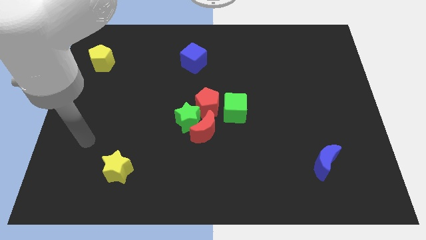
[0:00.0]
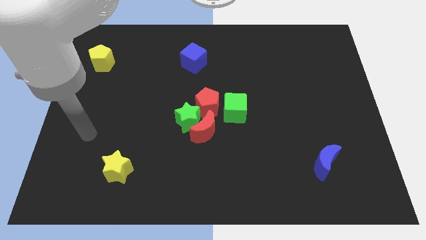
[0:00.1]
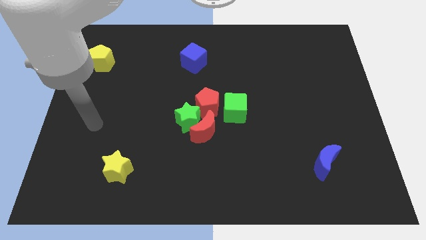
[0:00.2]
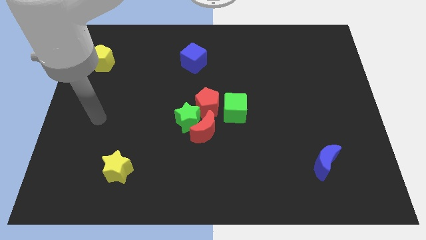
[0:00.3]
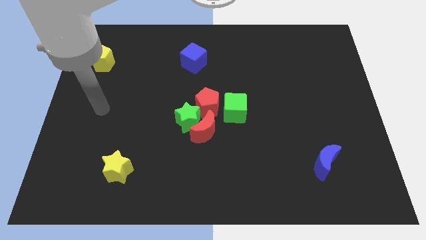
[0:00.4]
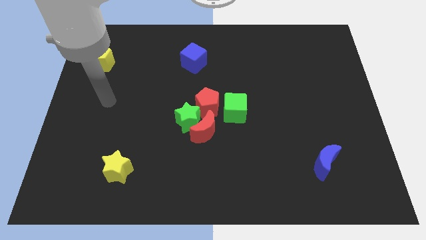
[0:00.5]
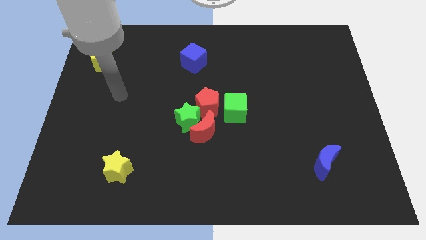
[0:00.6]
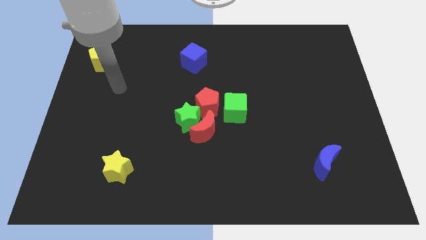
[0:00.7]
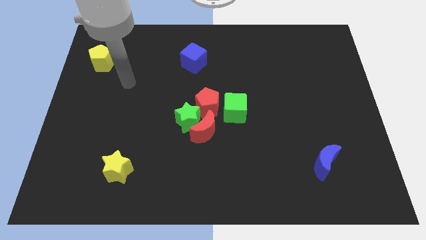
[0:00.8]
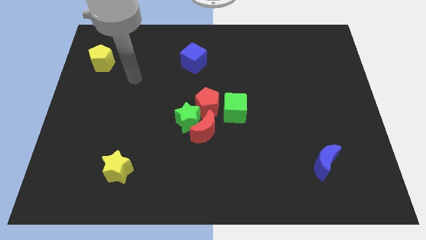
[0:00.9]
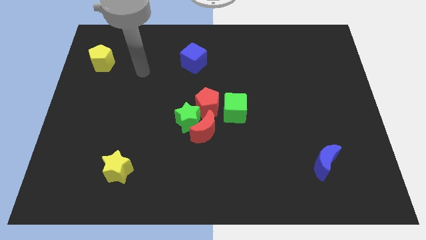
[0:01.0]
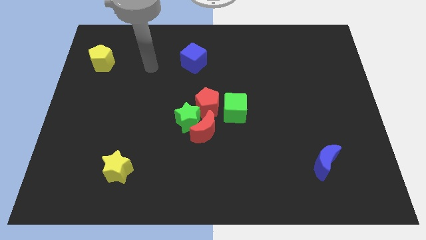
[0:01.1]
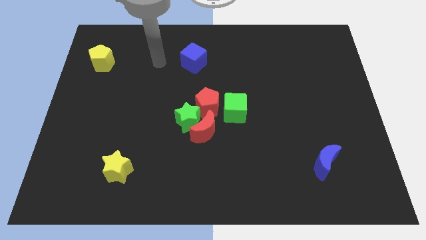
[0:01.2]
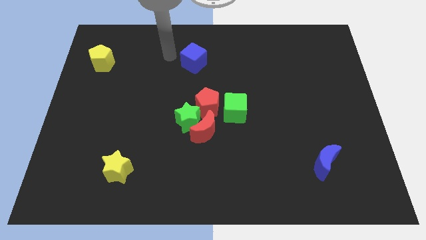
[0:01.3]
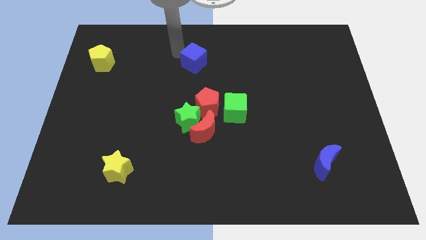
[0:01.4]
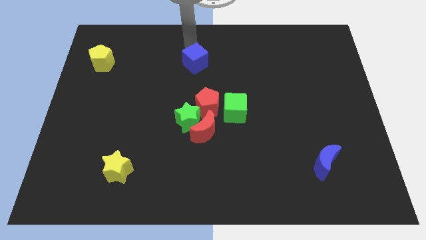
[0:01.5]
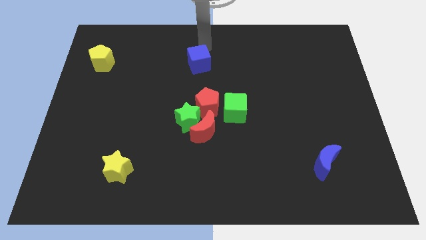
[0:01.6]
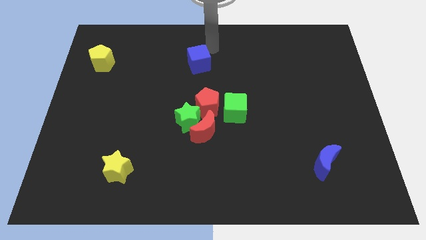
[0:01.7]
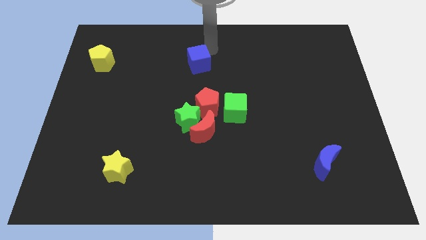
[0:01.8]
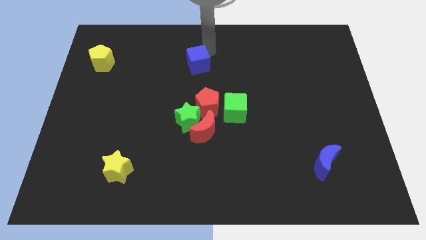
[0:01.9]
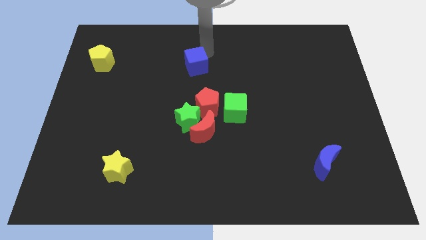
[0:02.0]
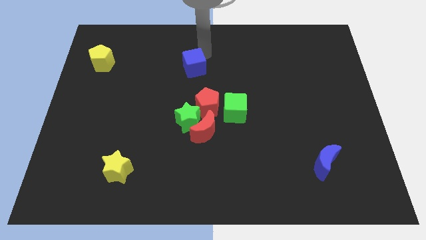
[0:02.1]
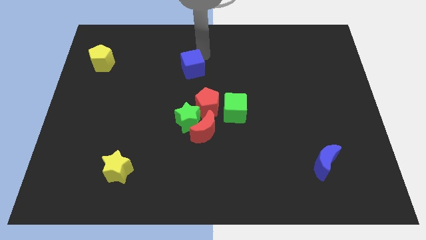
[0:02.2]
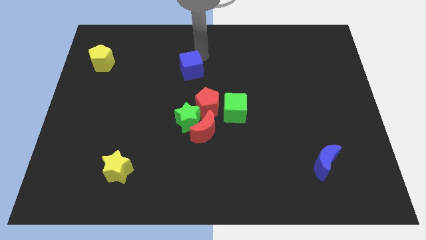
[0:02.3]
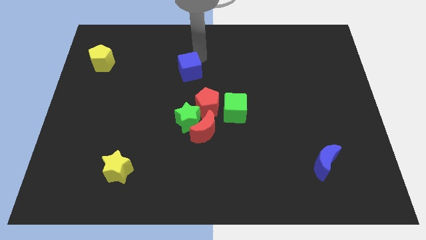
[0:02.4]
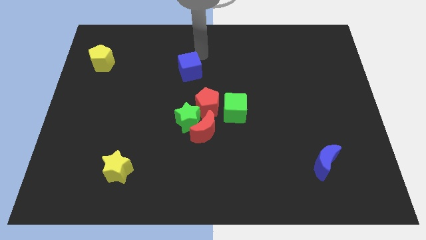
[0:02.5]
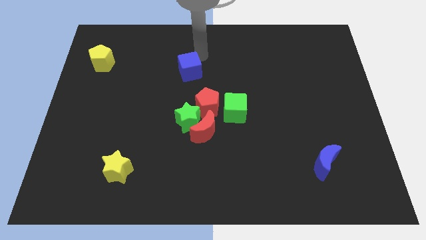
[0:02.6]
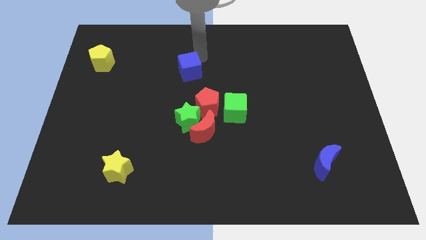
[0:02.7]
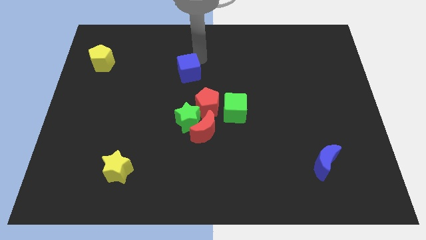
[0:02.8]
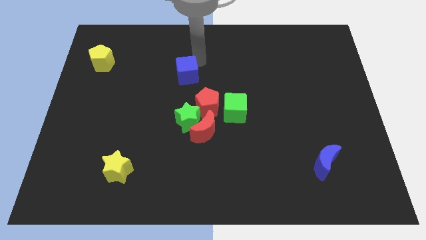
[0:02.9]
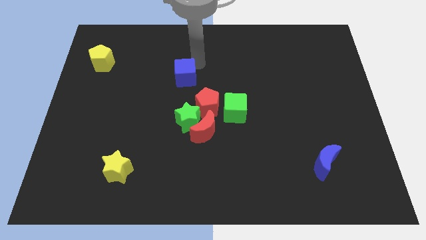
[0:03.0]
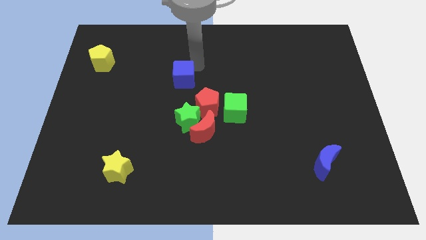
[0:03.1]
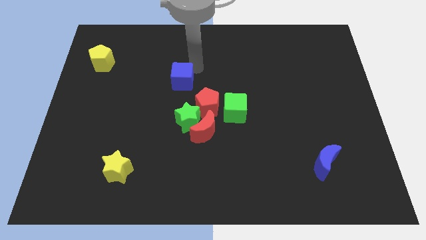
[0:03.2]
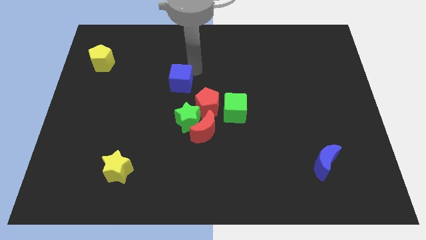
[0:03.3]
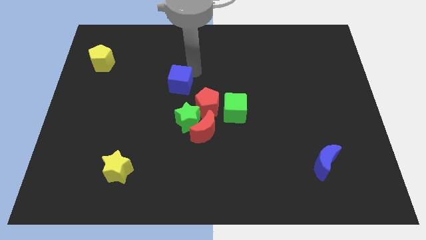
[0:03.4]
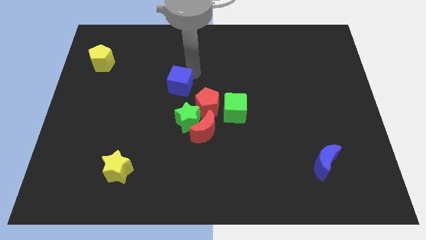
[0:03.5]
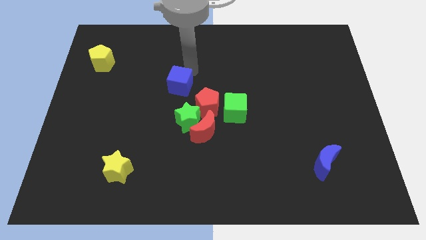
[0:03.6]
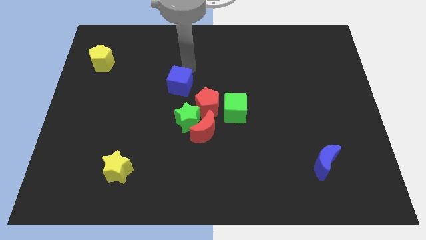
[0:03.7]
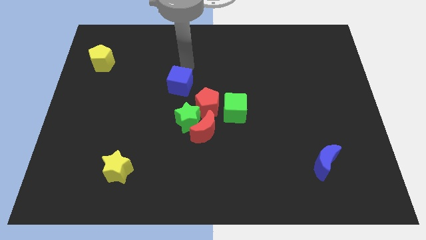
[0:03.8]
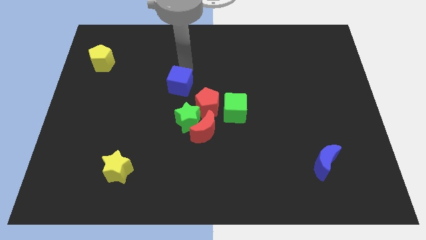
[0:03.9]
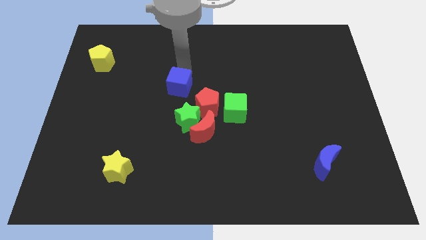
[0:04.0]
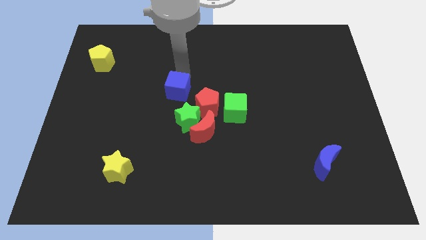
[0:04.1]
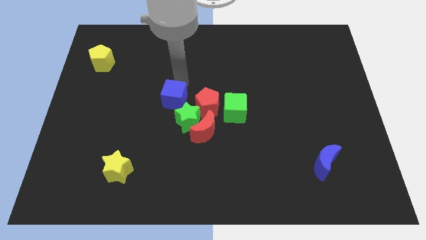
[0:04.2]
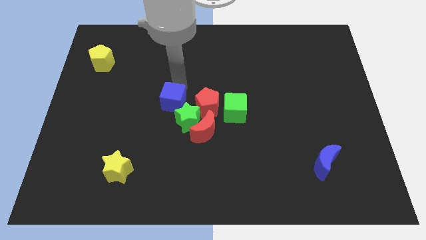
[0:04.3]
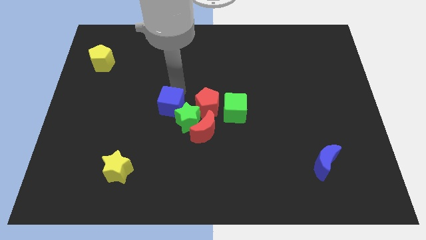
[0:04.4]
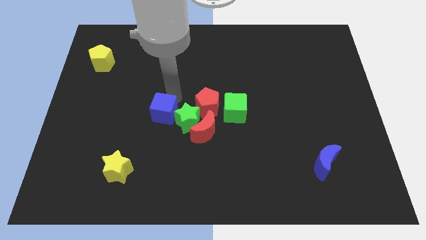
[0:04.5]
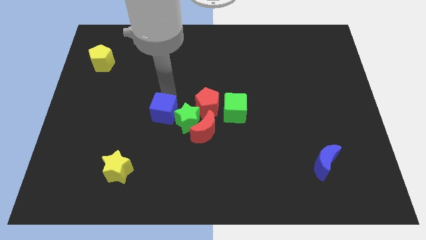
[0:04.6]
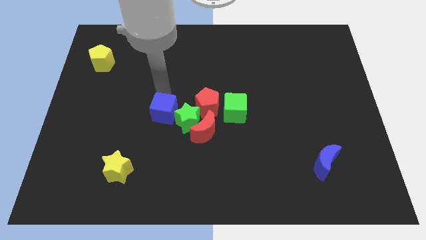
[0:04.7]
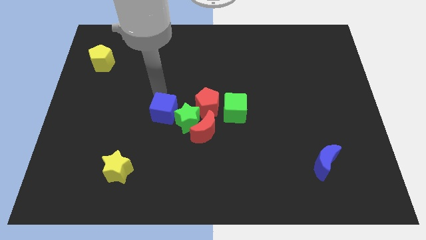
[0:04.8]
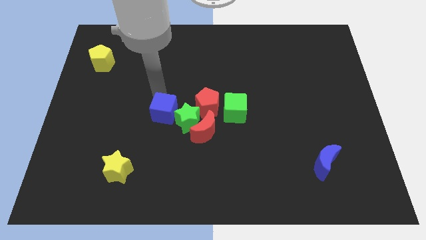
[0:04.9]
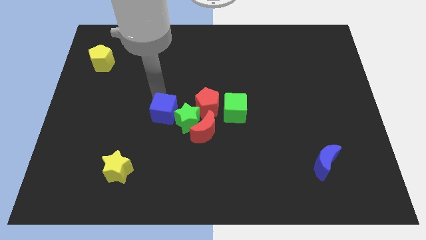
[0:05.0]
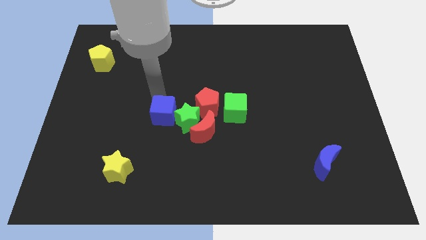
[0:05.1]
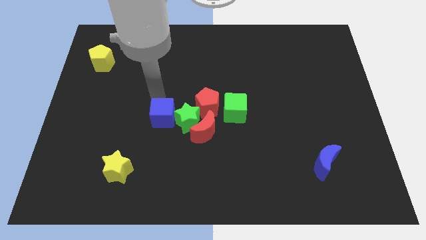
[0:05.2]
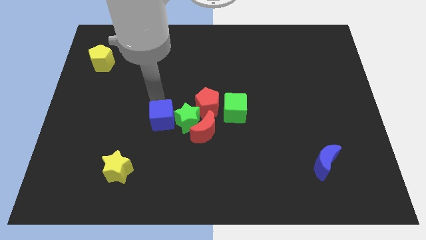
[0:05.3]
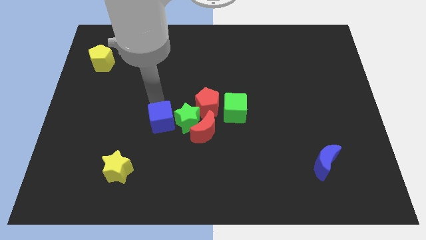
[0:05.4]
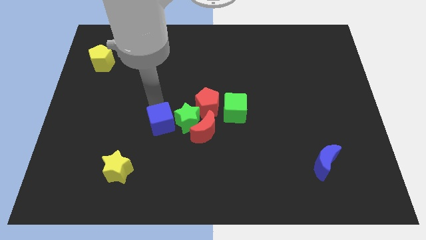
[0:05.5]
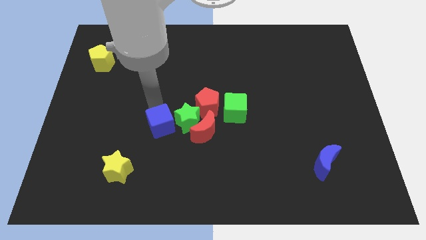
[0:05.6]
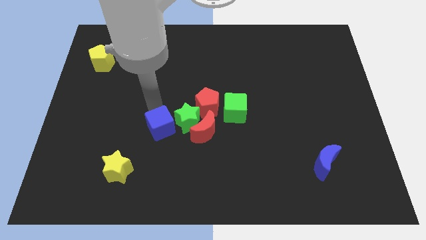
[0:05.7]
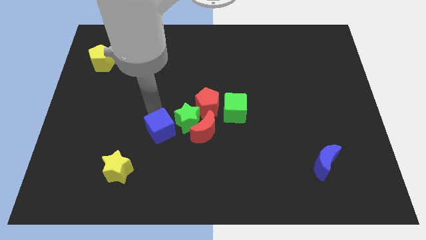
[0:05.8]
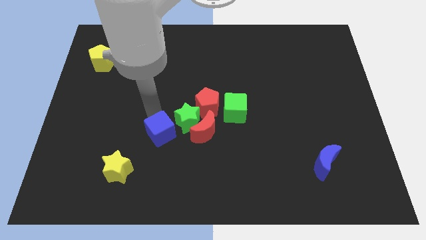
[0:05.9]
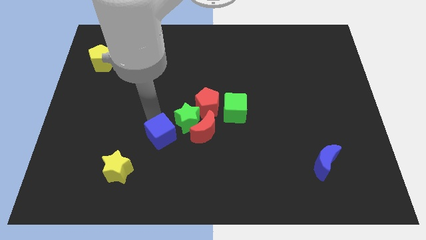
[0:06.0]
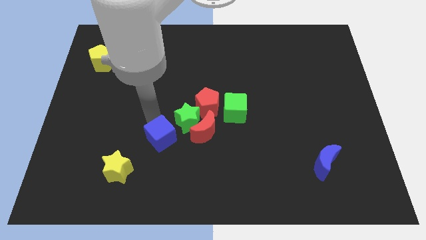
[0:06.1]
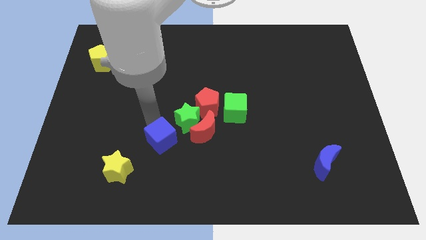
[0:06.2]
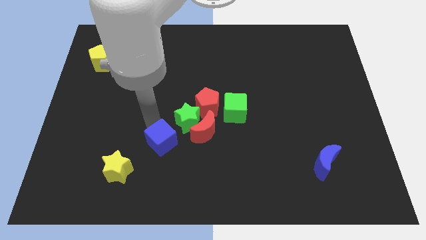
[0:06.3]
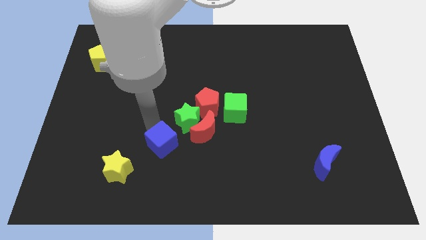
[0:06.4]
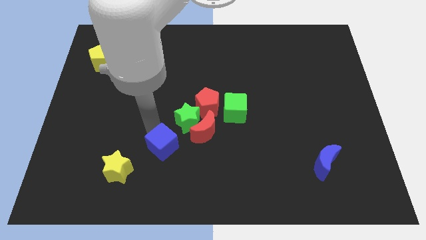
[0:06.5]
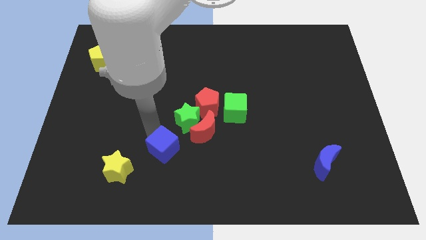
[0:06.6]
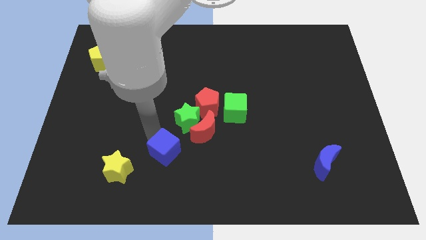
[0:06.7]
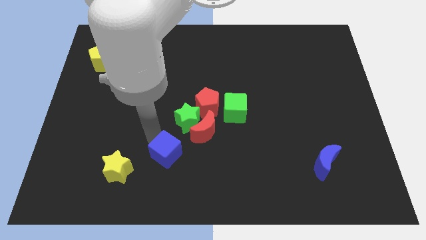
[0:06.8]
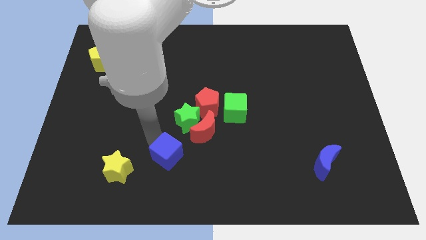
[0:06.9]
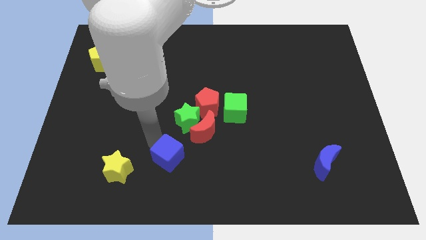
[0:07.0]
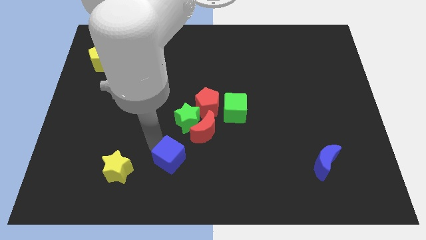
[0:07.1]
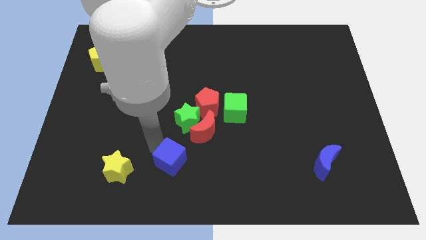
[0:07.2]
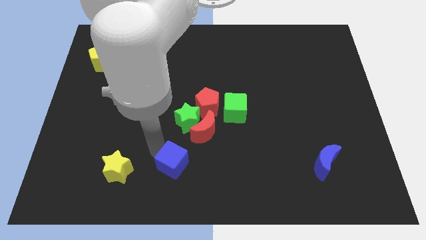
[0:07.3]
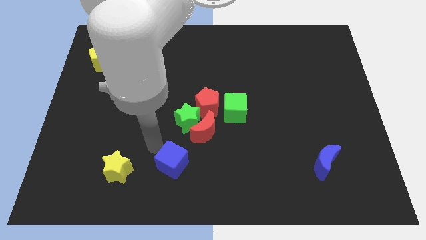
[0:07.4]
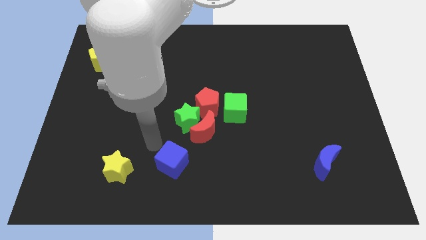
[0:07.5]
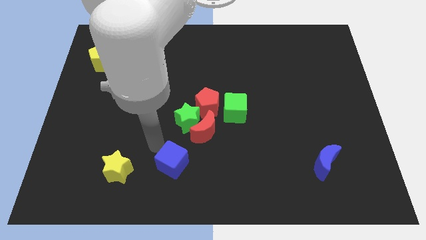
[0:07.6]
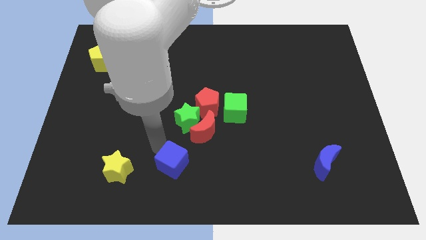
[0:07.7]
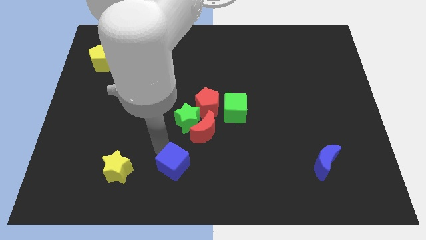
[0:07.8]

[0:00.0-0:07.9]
move the blue cube to the bottom side
